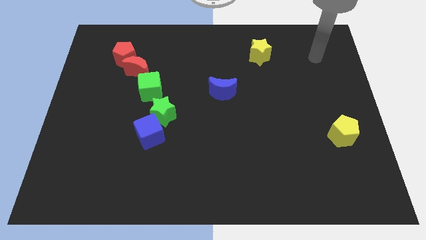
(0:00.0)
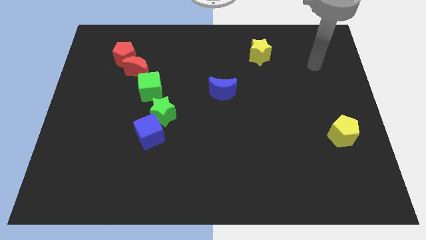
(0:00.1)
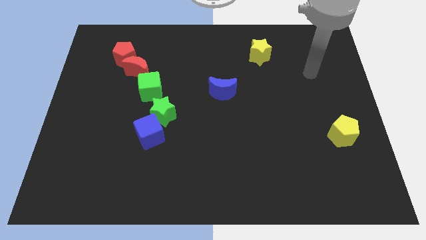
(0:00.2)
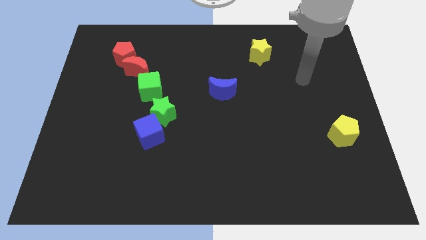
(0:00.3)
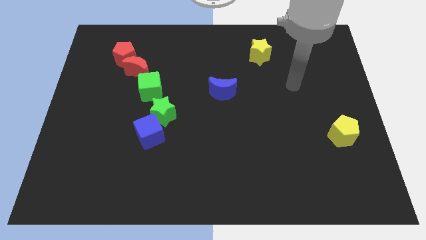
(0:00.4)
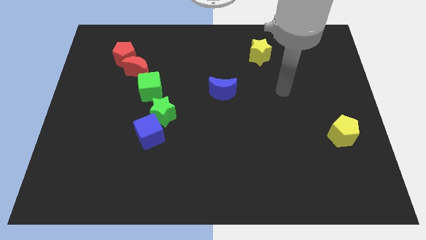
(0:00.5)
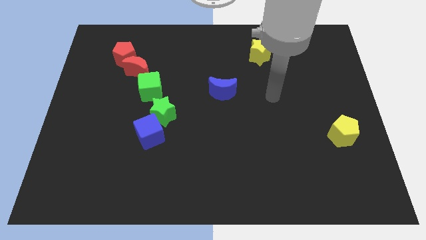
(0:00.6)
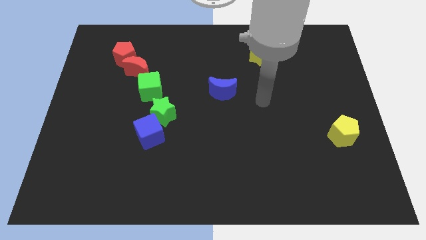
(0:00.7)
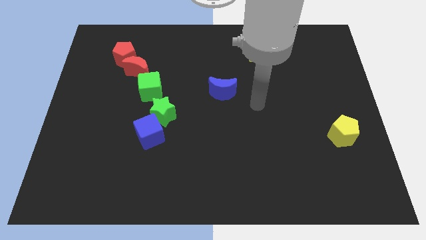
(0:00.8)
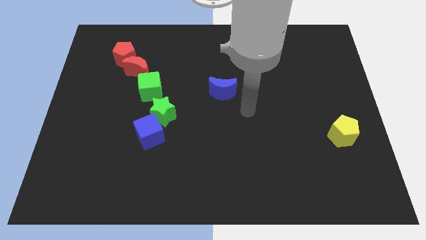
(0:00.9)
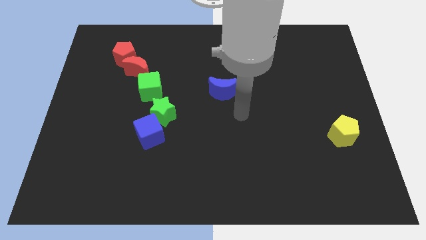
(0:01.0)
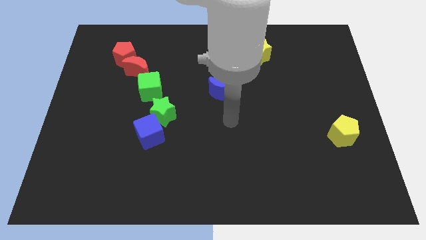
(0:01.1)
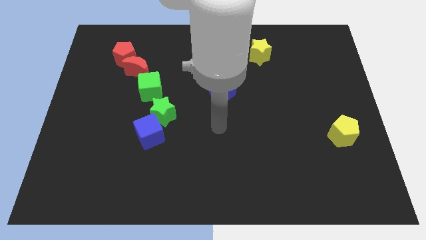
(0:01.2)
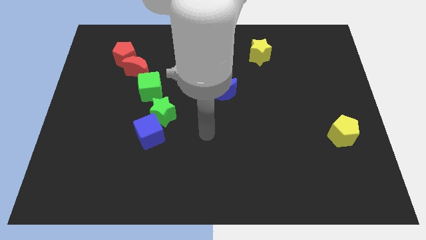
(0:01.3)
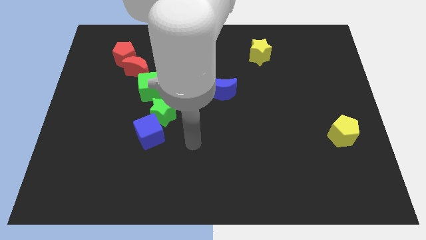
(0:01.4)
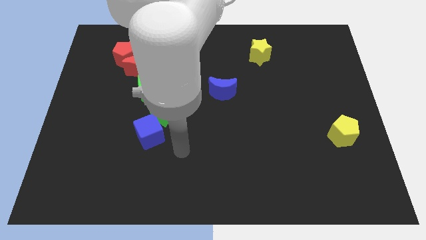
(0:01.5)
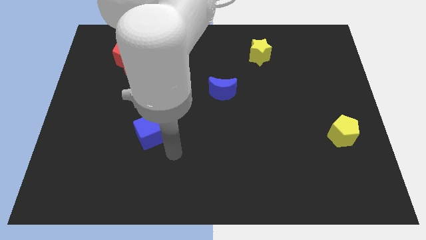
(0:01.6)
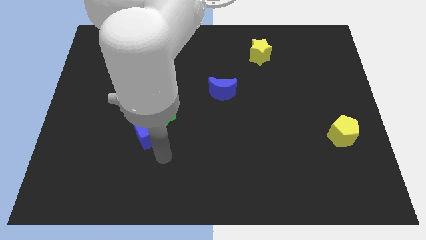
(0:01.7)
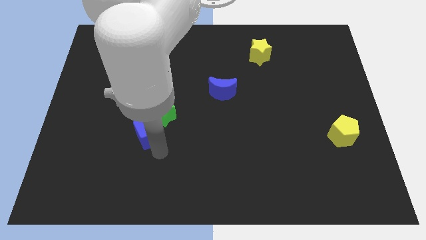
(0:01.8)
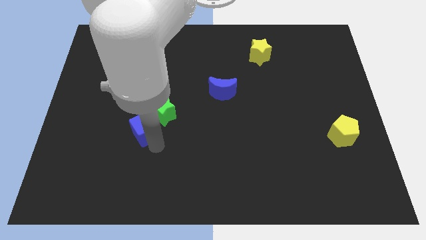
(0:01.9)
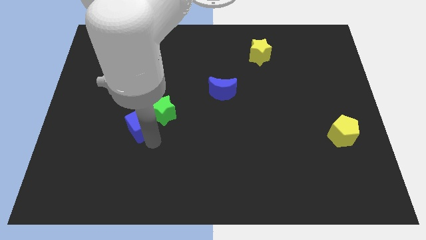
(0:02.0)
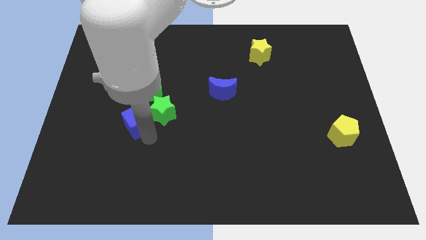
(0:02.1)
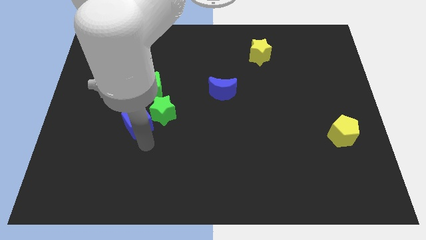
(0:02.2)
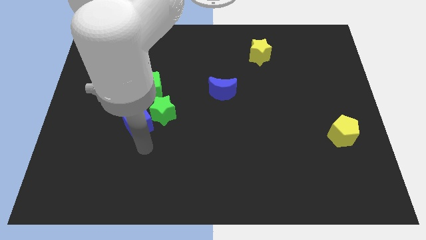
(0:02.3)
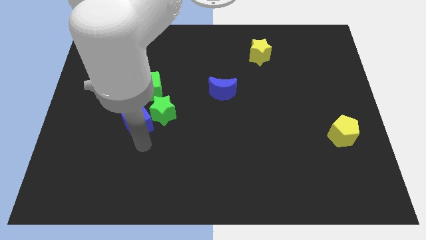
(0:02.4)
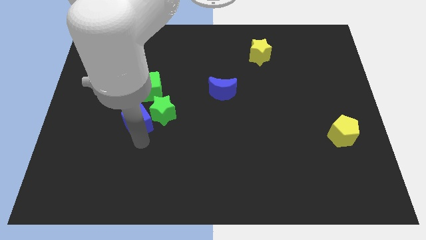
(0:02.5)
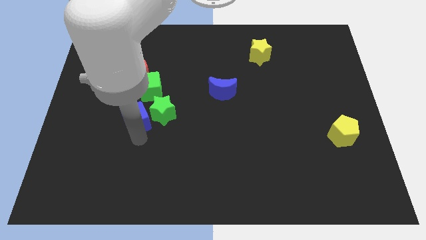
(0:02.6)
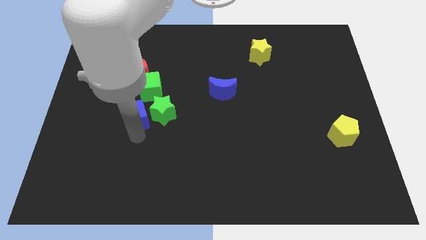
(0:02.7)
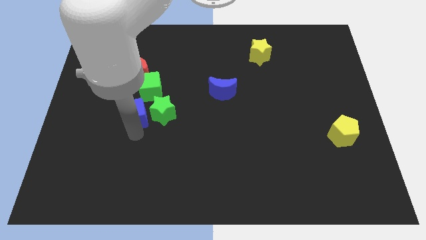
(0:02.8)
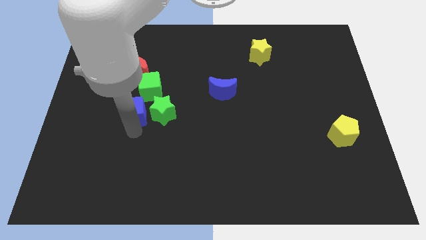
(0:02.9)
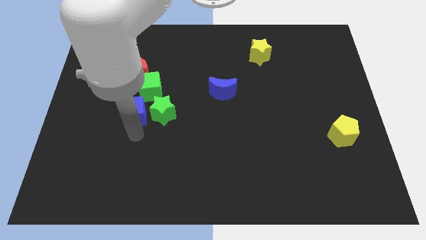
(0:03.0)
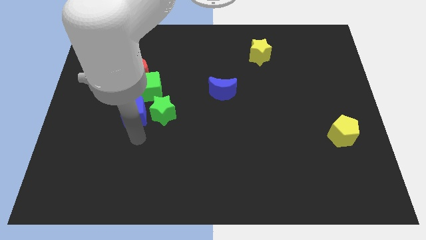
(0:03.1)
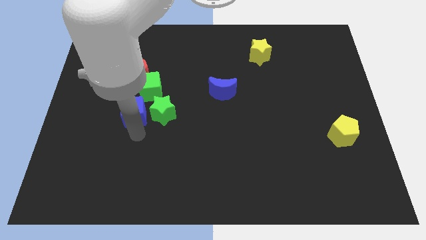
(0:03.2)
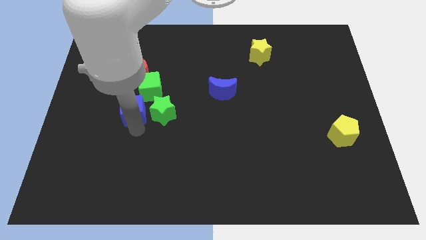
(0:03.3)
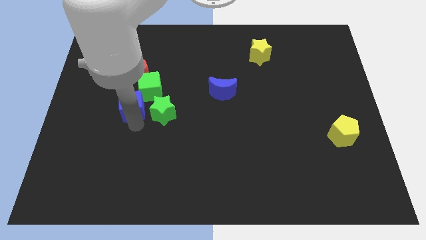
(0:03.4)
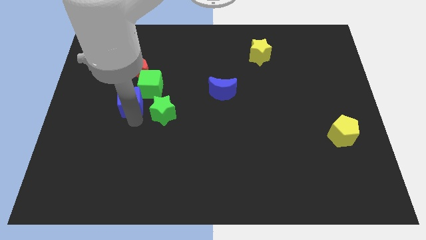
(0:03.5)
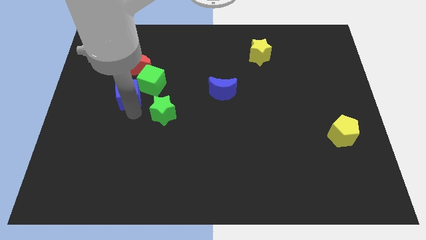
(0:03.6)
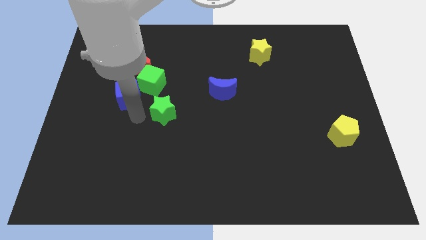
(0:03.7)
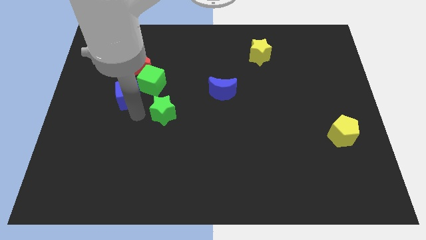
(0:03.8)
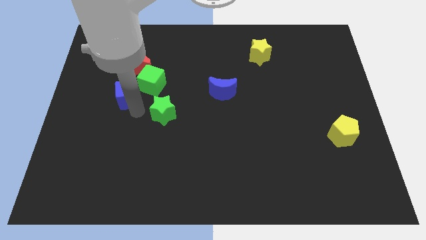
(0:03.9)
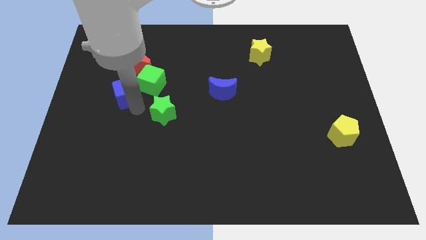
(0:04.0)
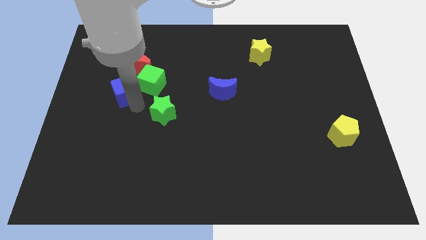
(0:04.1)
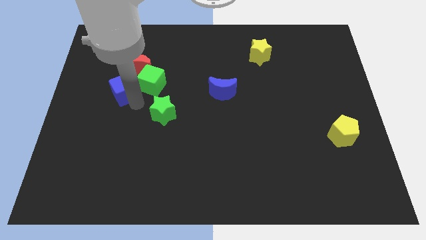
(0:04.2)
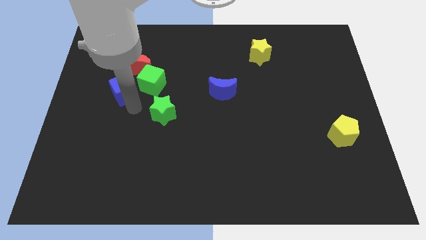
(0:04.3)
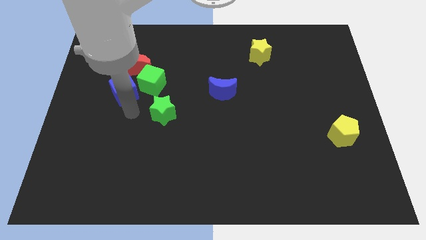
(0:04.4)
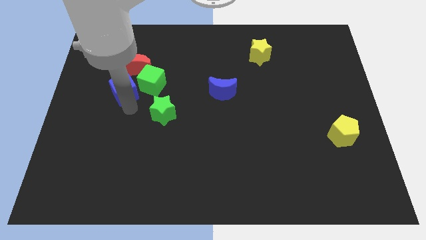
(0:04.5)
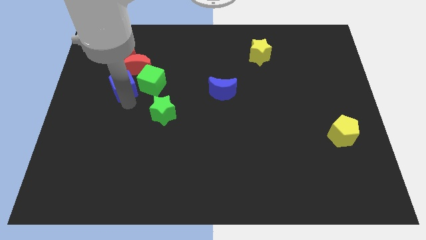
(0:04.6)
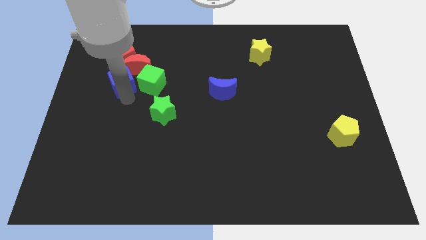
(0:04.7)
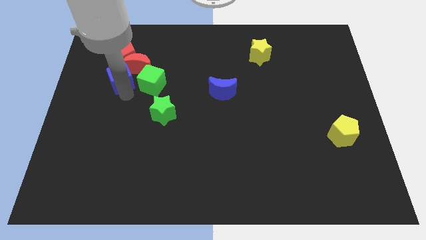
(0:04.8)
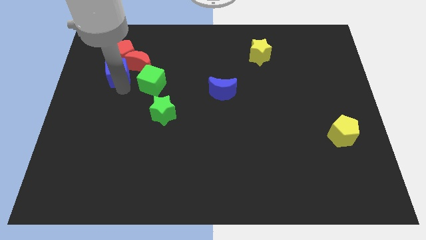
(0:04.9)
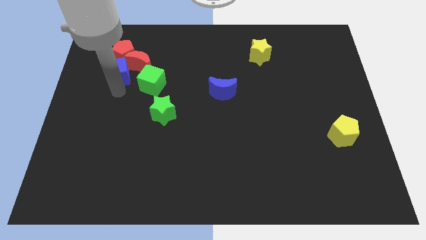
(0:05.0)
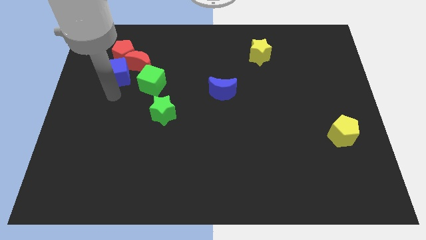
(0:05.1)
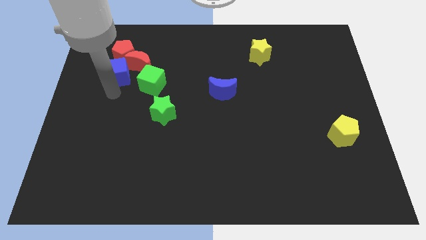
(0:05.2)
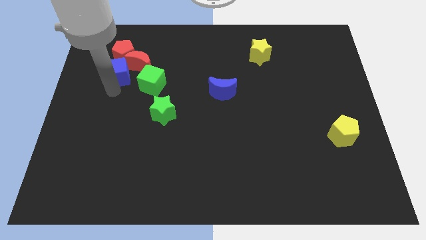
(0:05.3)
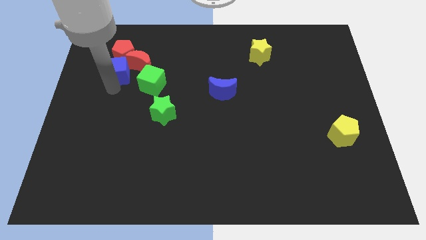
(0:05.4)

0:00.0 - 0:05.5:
push the blue cube to the red pentagon

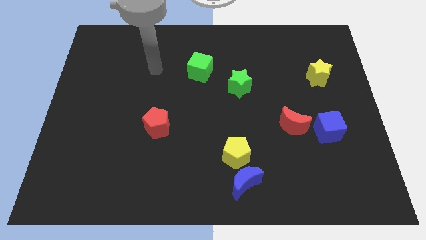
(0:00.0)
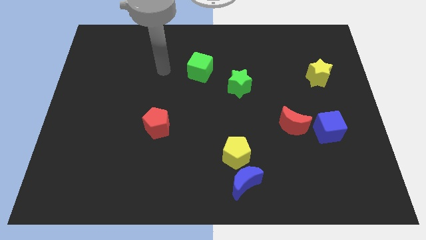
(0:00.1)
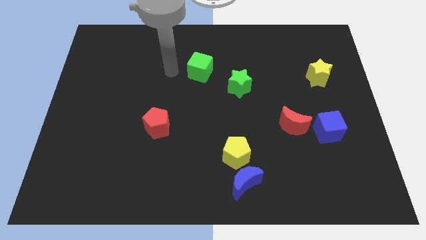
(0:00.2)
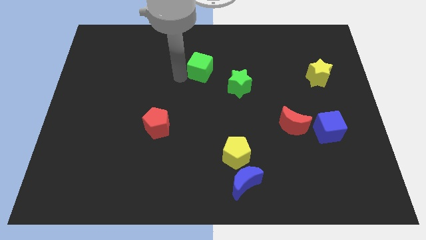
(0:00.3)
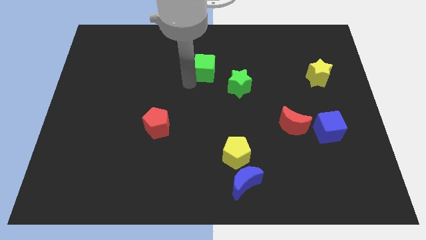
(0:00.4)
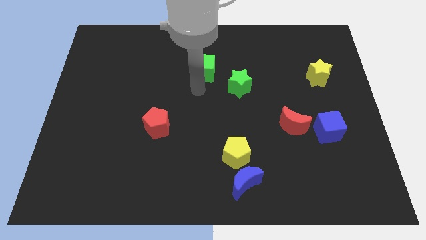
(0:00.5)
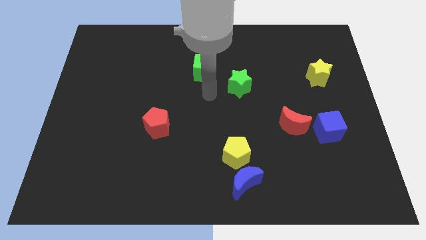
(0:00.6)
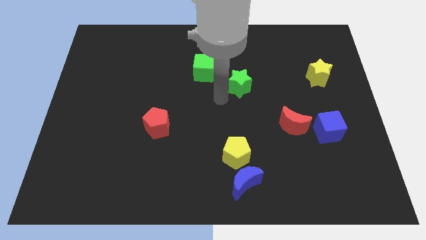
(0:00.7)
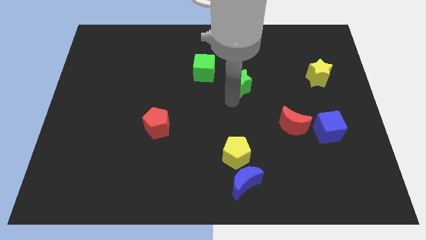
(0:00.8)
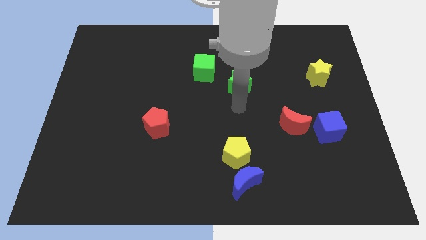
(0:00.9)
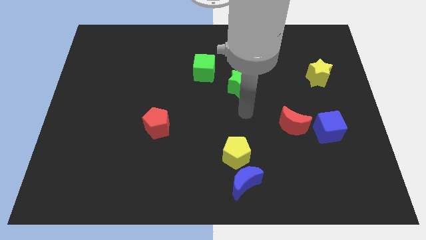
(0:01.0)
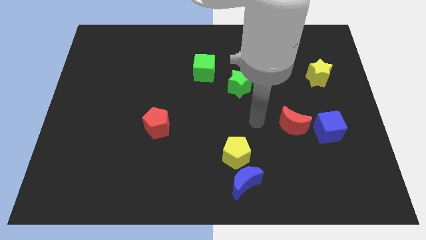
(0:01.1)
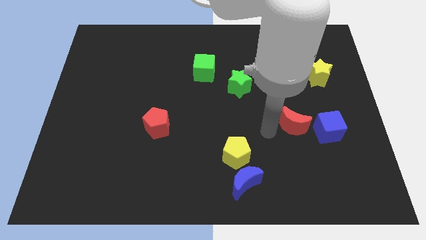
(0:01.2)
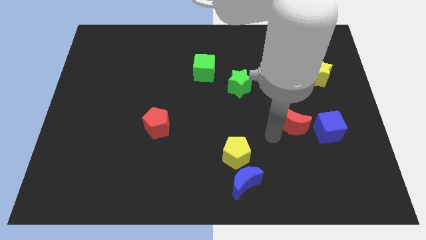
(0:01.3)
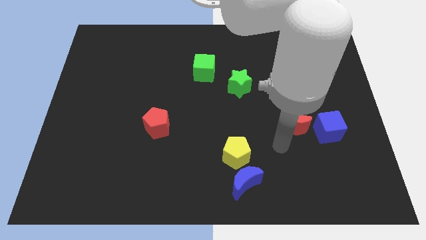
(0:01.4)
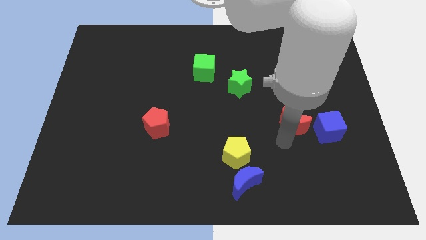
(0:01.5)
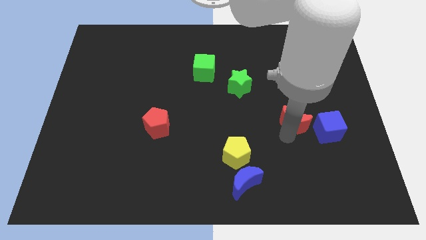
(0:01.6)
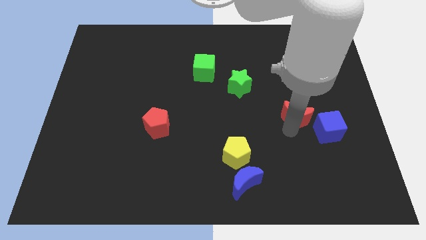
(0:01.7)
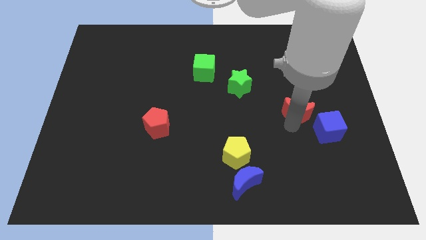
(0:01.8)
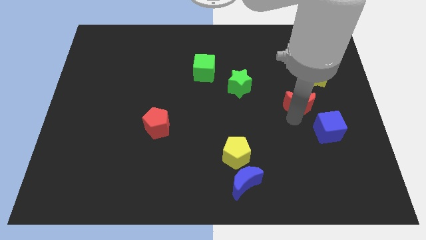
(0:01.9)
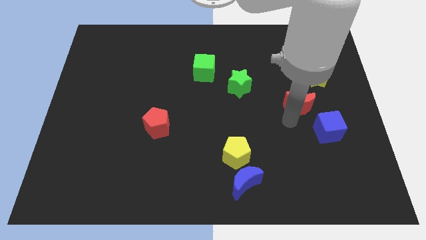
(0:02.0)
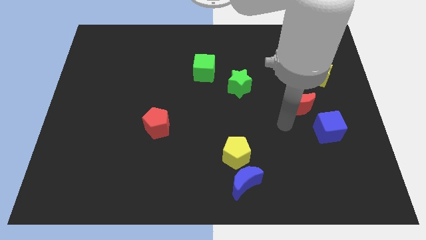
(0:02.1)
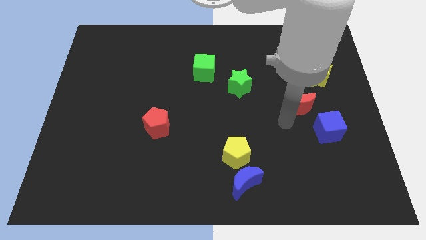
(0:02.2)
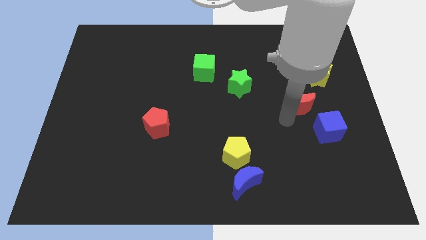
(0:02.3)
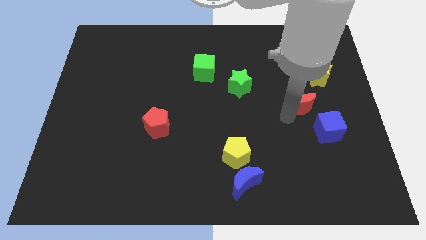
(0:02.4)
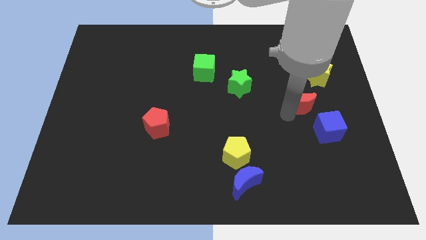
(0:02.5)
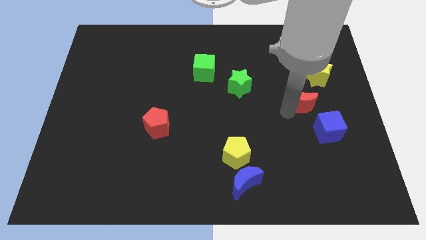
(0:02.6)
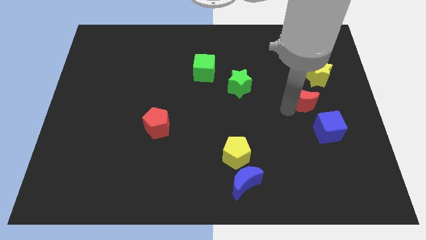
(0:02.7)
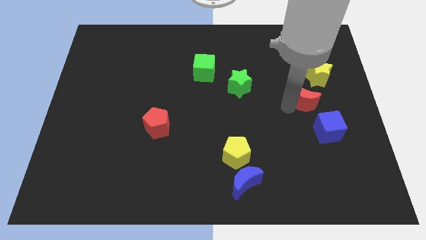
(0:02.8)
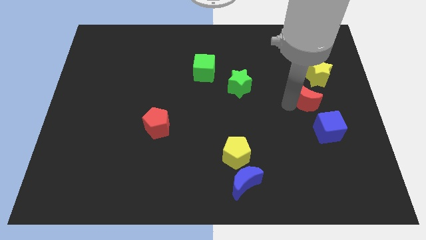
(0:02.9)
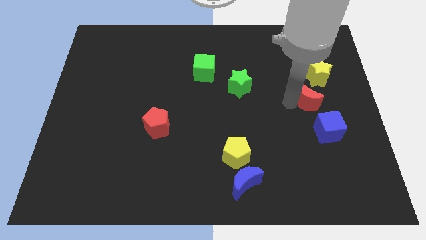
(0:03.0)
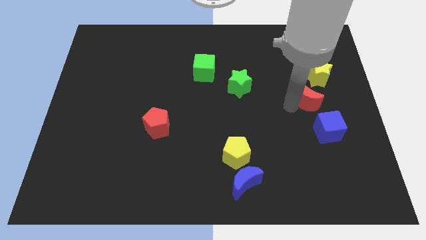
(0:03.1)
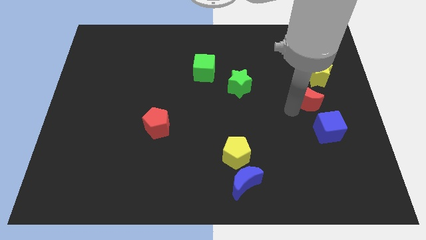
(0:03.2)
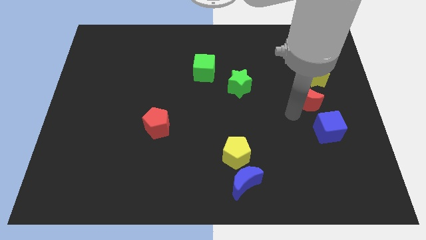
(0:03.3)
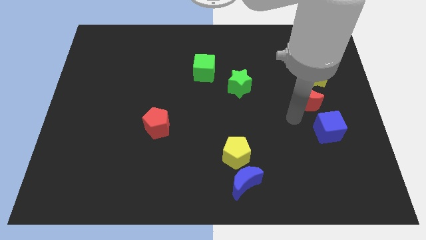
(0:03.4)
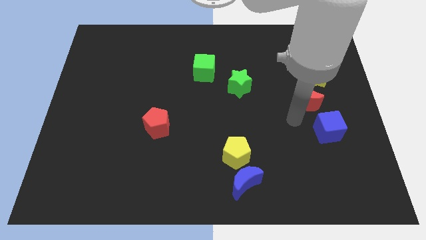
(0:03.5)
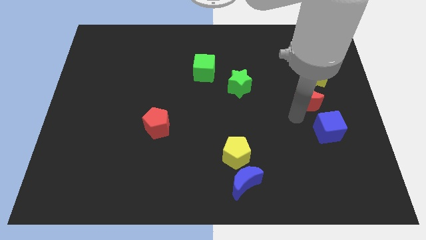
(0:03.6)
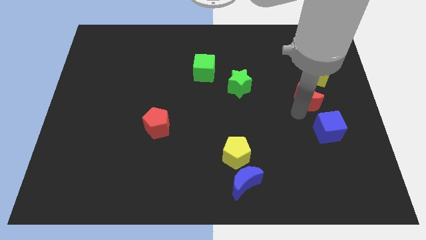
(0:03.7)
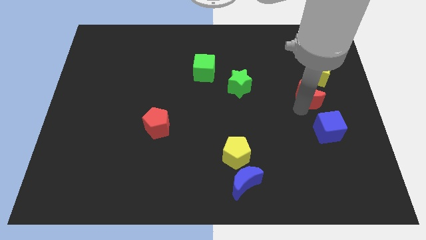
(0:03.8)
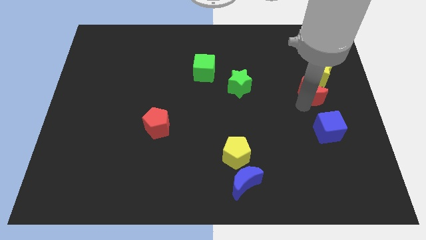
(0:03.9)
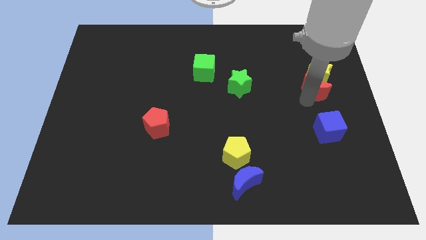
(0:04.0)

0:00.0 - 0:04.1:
move the red moon close to the yellow star
